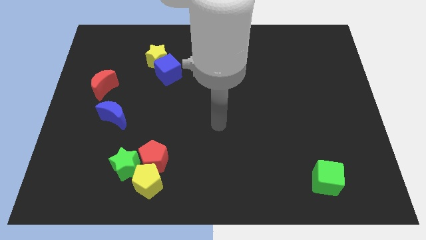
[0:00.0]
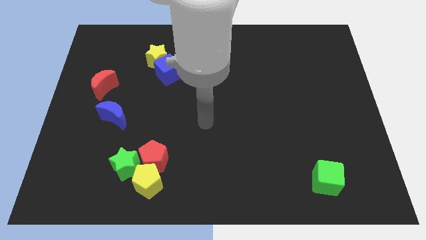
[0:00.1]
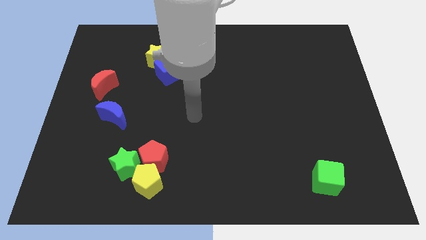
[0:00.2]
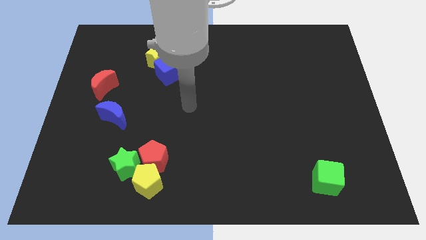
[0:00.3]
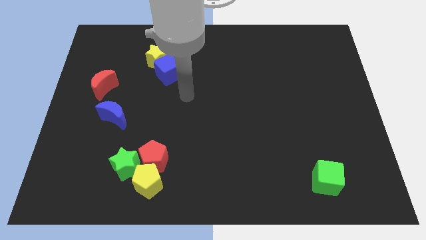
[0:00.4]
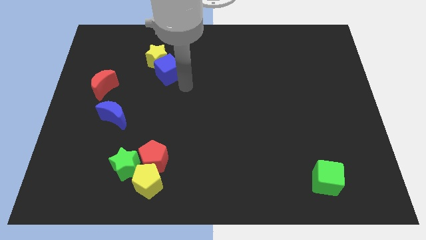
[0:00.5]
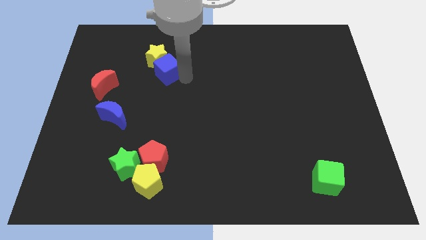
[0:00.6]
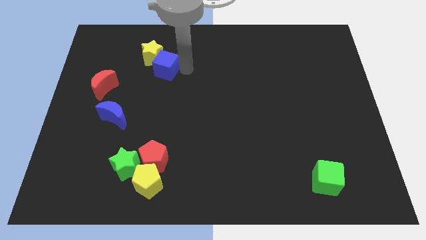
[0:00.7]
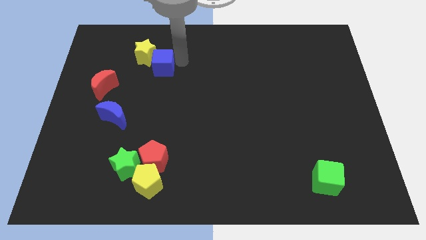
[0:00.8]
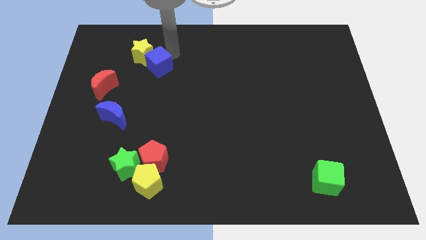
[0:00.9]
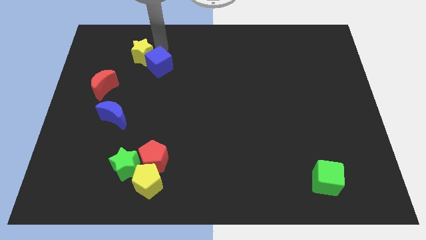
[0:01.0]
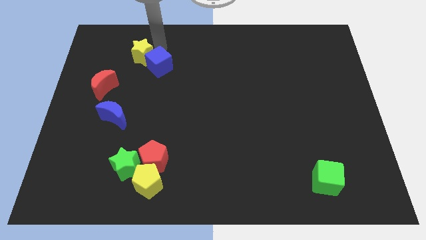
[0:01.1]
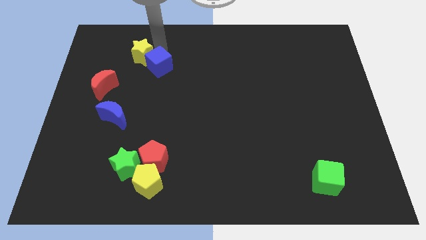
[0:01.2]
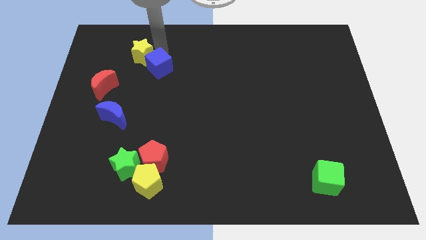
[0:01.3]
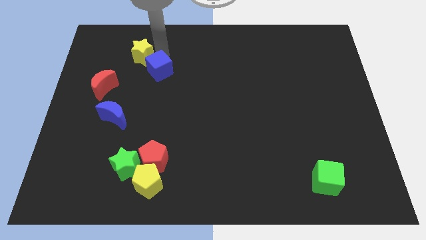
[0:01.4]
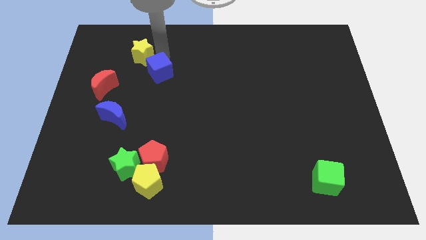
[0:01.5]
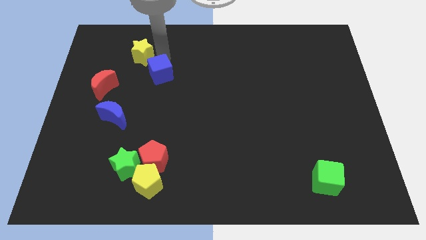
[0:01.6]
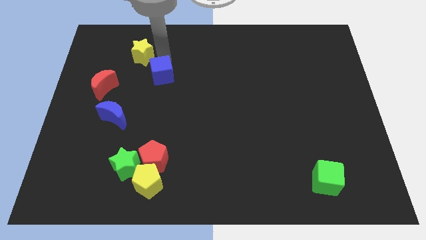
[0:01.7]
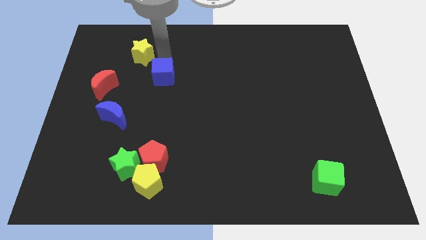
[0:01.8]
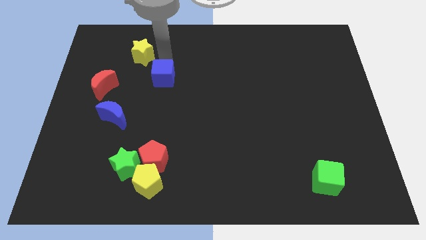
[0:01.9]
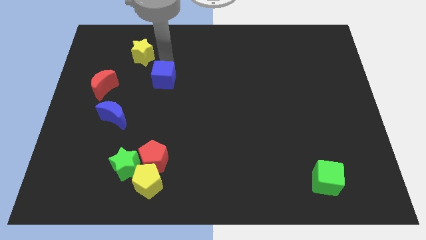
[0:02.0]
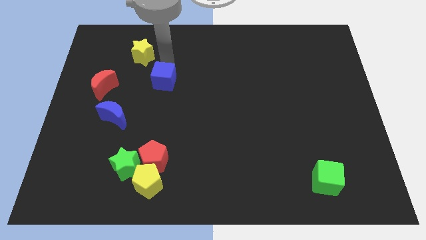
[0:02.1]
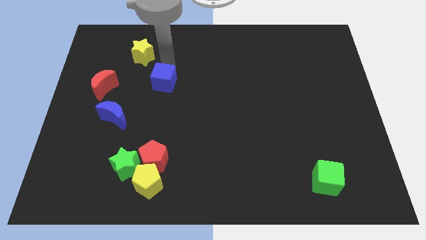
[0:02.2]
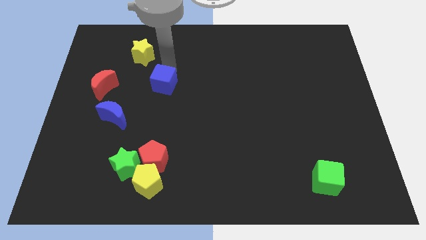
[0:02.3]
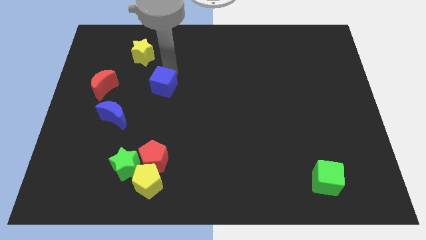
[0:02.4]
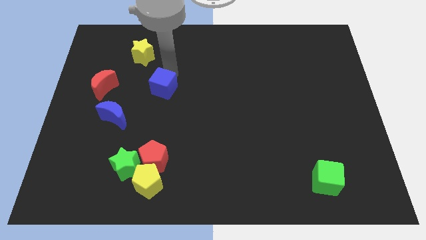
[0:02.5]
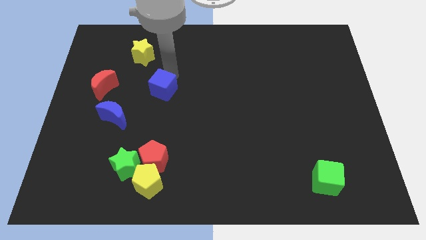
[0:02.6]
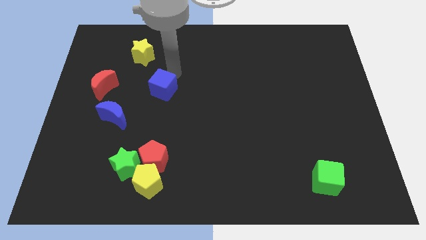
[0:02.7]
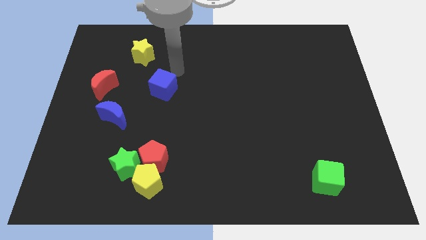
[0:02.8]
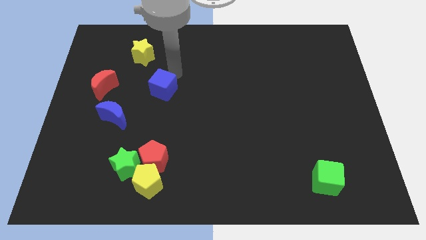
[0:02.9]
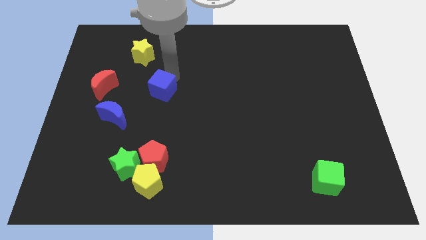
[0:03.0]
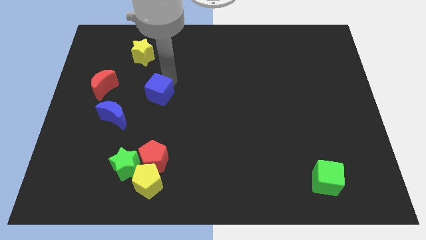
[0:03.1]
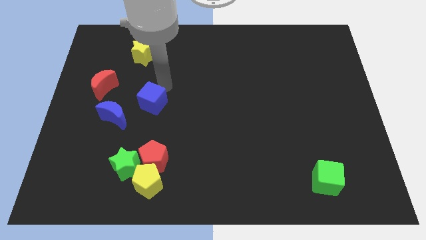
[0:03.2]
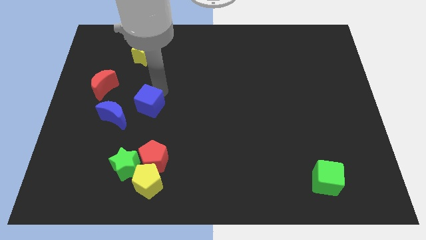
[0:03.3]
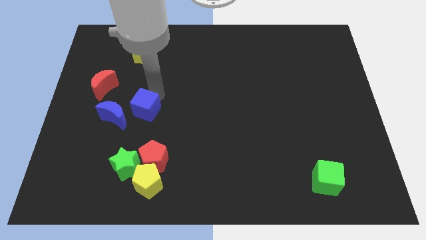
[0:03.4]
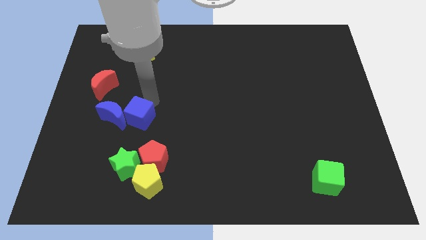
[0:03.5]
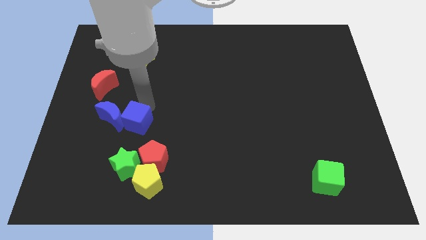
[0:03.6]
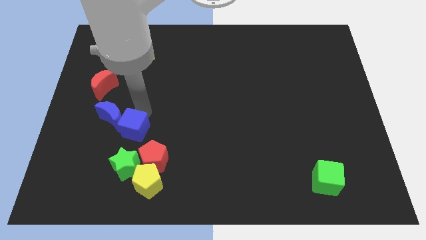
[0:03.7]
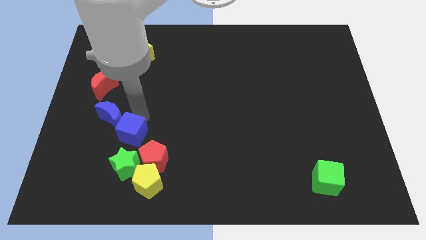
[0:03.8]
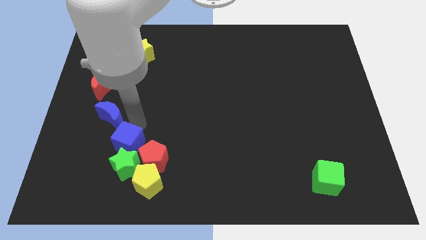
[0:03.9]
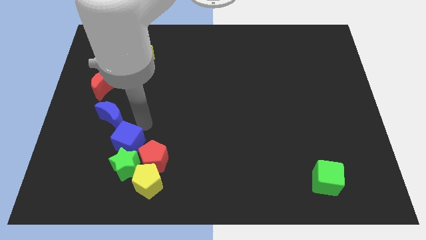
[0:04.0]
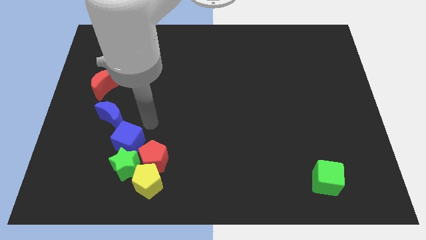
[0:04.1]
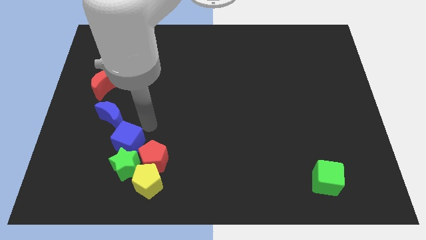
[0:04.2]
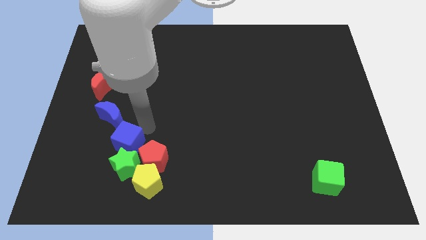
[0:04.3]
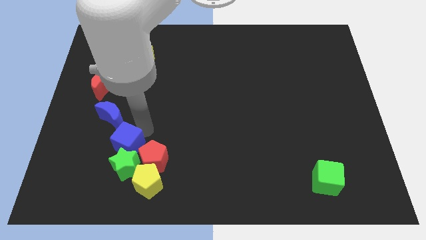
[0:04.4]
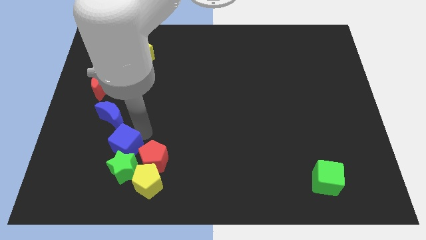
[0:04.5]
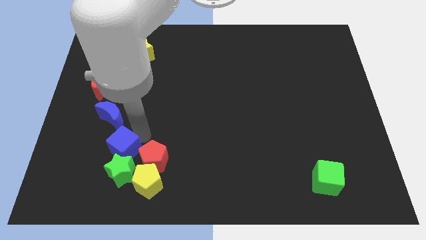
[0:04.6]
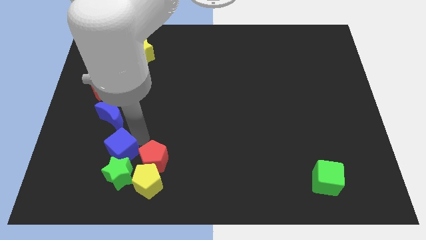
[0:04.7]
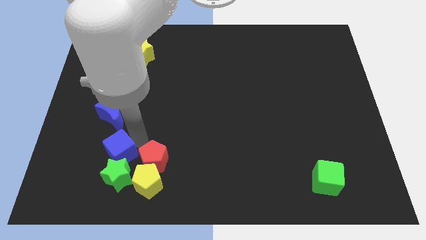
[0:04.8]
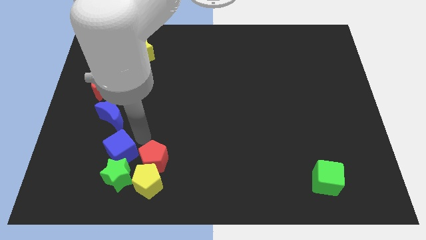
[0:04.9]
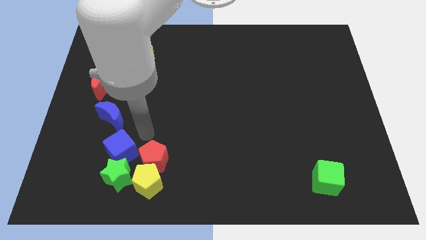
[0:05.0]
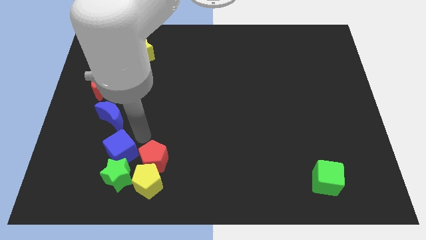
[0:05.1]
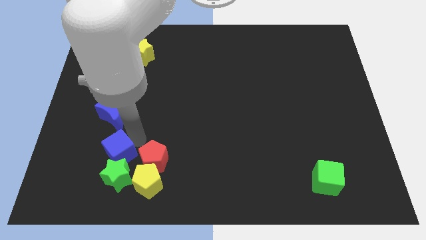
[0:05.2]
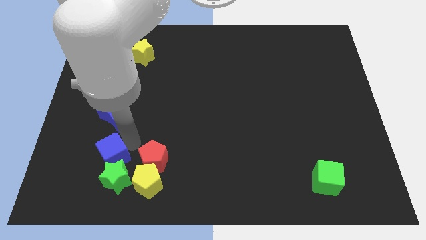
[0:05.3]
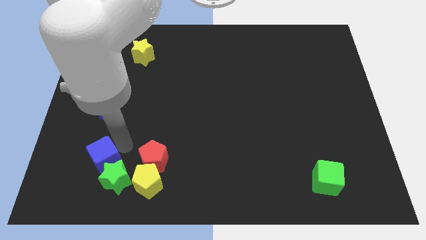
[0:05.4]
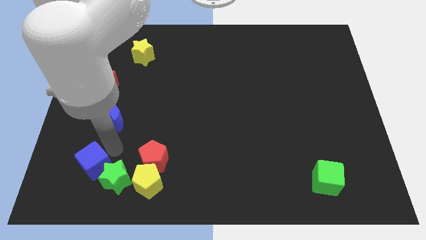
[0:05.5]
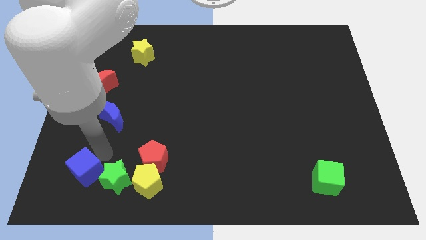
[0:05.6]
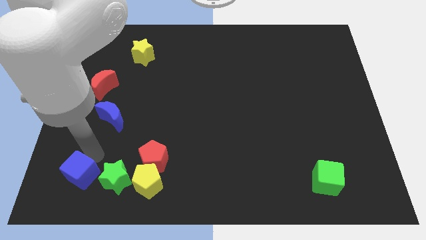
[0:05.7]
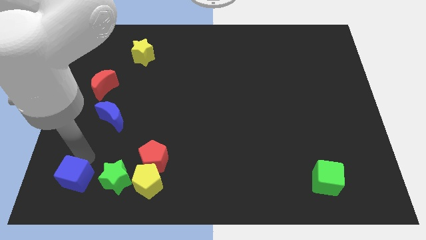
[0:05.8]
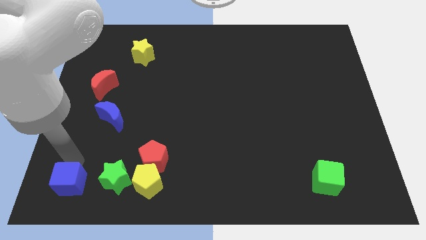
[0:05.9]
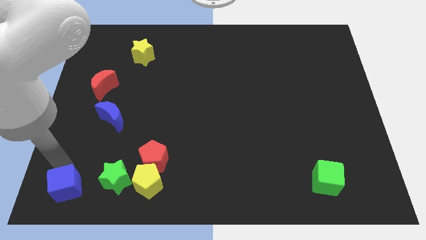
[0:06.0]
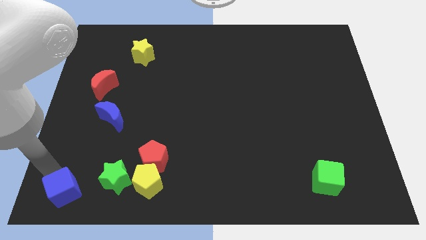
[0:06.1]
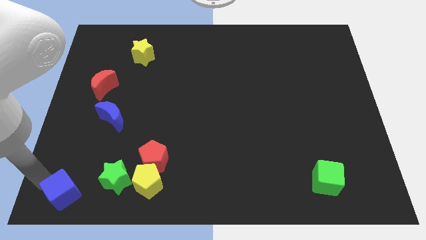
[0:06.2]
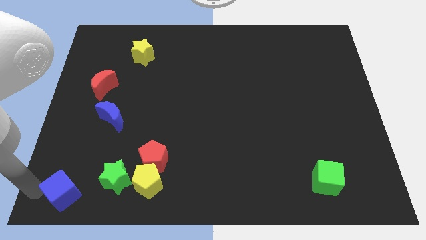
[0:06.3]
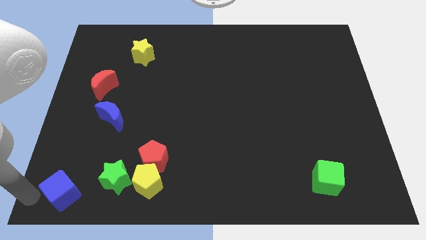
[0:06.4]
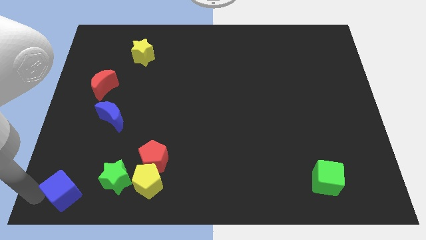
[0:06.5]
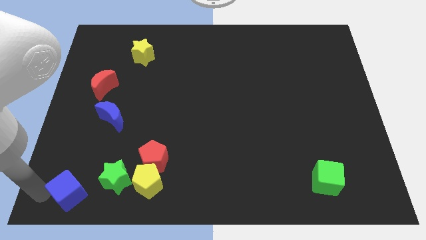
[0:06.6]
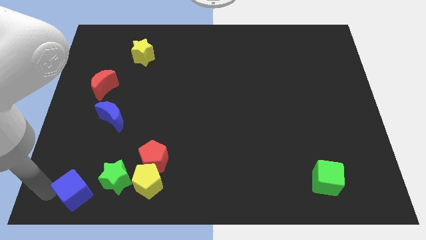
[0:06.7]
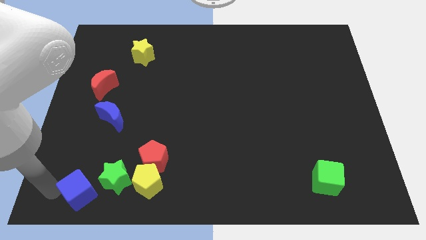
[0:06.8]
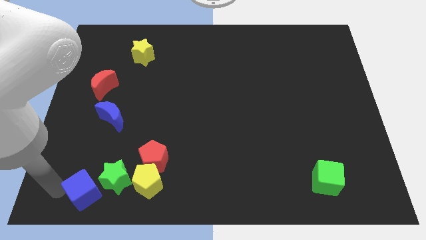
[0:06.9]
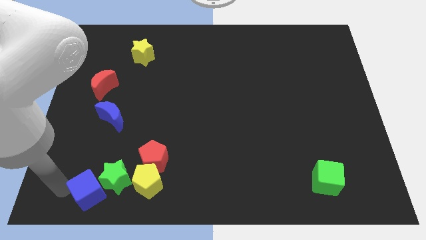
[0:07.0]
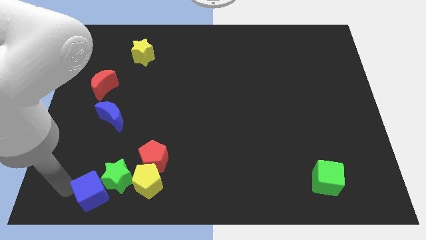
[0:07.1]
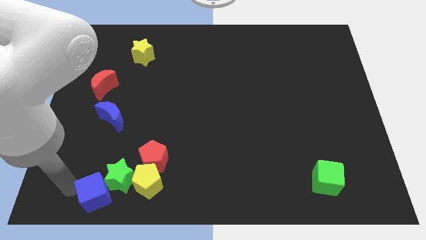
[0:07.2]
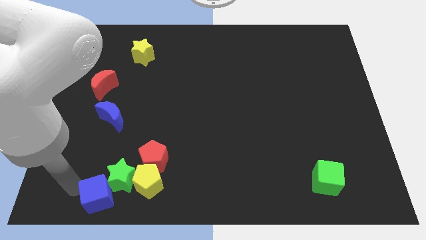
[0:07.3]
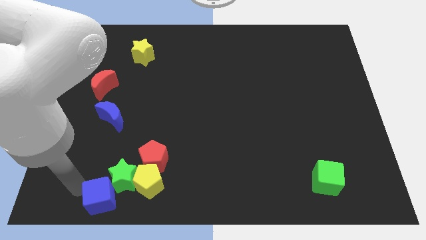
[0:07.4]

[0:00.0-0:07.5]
put the blue cube to the bottom left of the red pentagon
